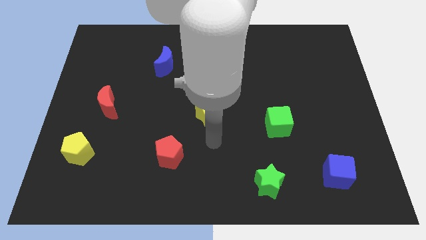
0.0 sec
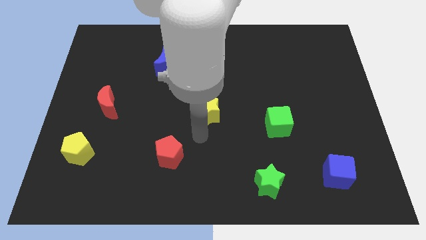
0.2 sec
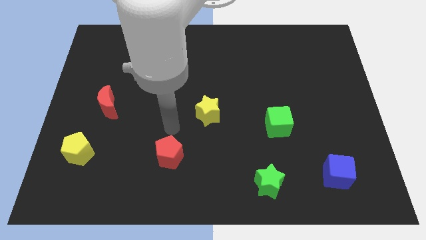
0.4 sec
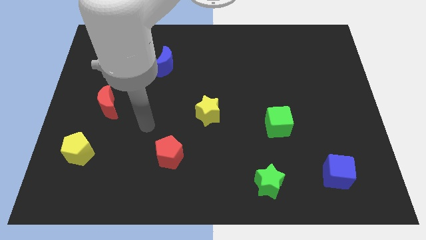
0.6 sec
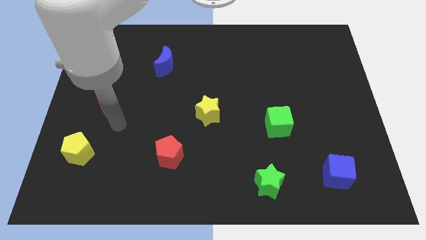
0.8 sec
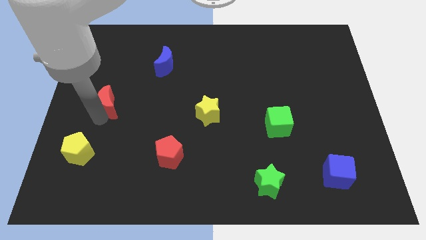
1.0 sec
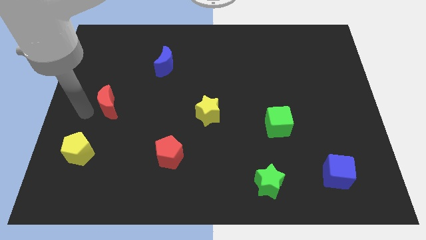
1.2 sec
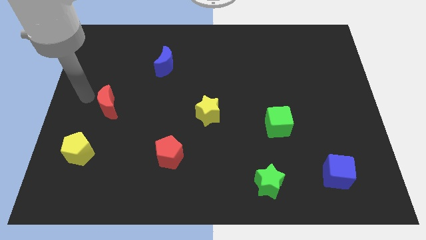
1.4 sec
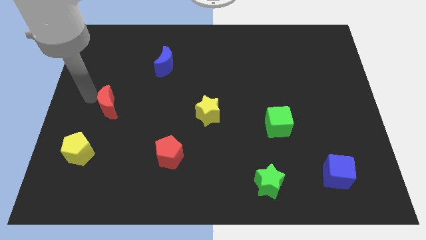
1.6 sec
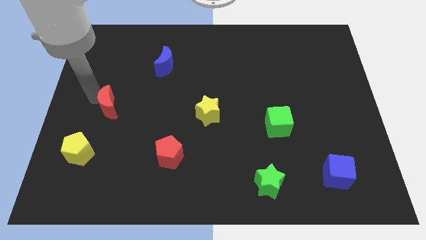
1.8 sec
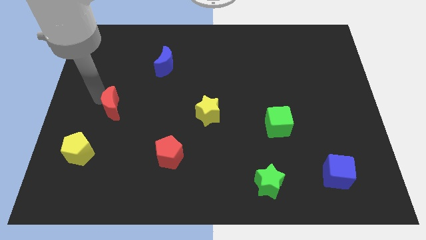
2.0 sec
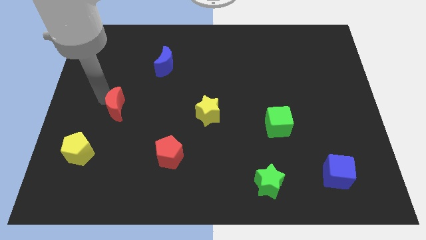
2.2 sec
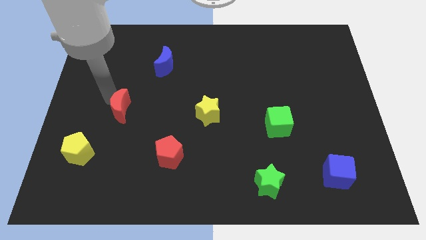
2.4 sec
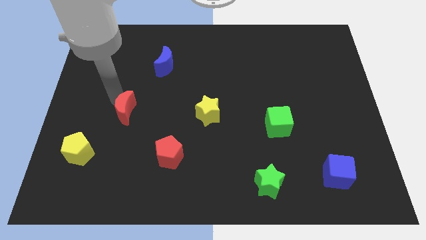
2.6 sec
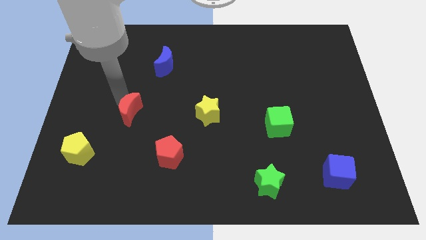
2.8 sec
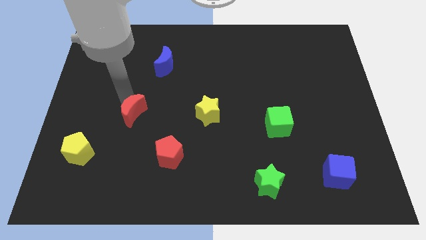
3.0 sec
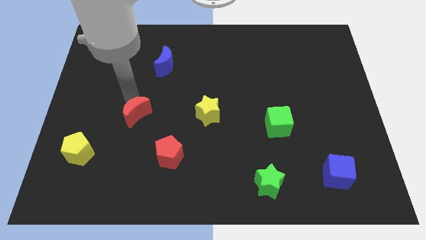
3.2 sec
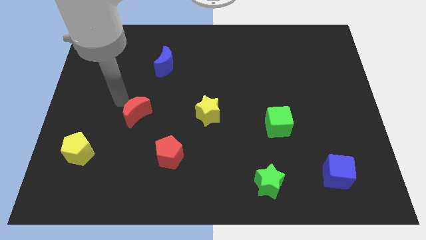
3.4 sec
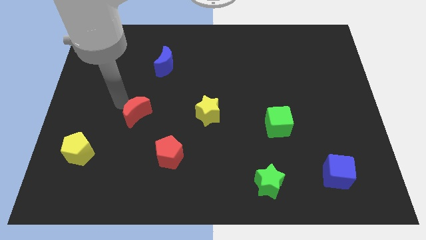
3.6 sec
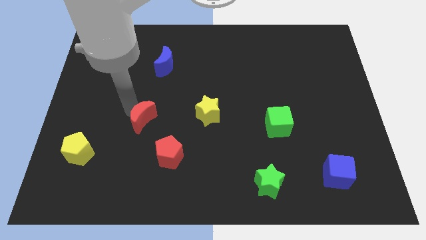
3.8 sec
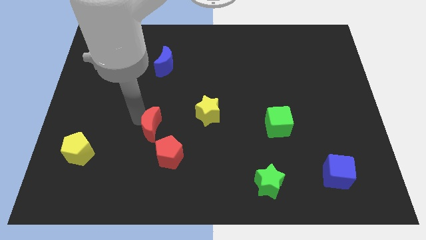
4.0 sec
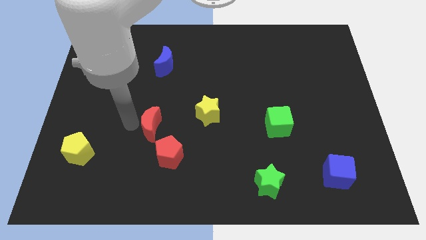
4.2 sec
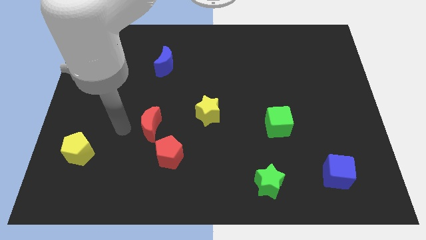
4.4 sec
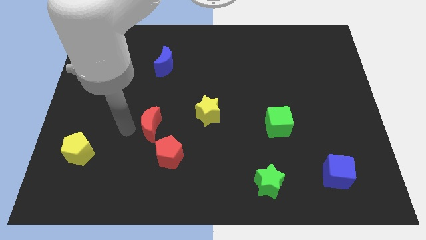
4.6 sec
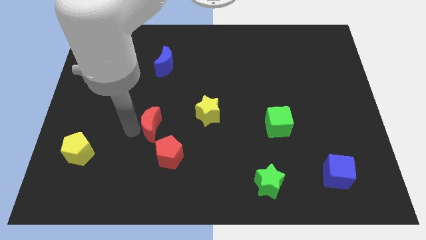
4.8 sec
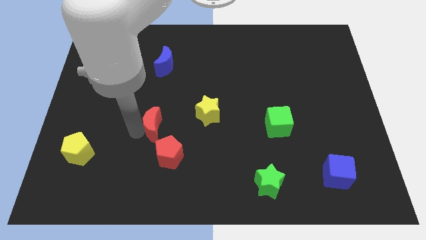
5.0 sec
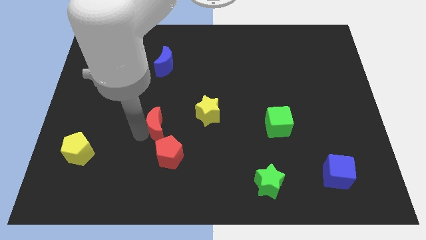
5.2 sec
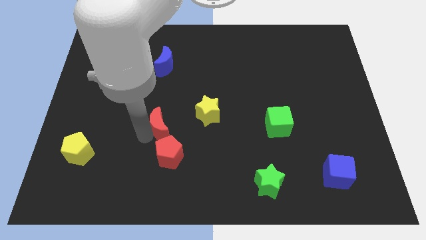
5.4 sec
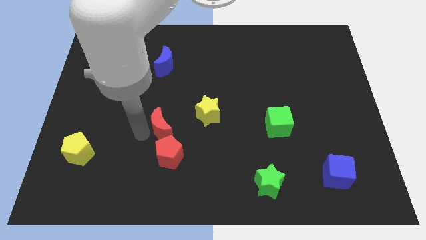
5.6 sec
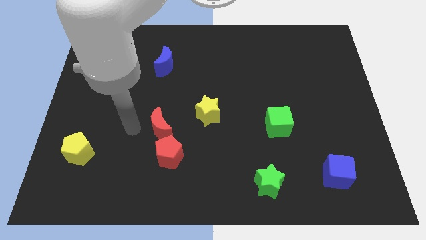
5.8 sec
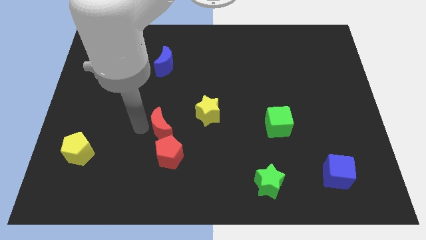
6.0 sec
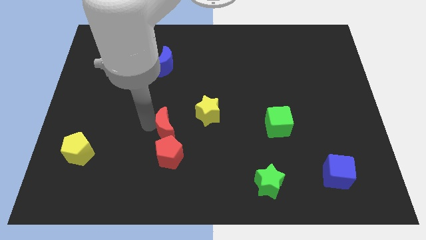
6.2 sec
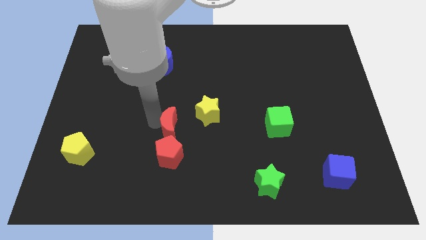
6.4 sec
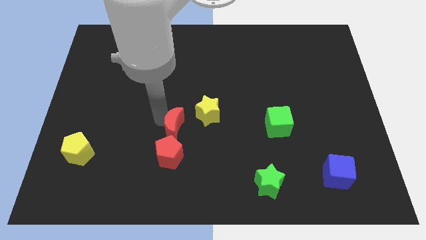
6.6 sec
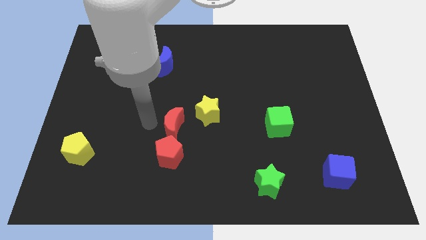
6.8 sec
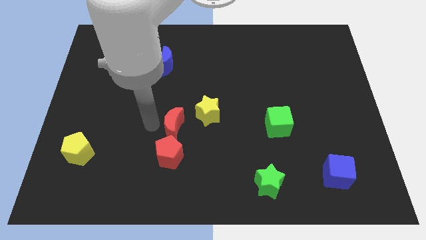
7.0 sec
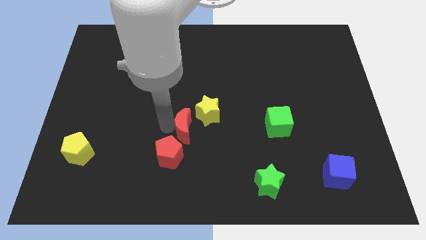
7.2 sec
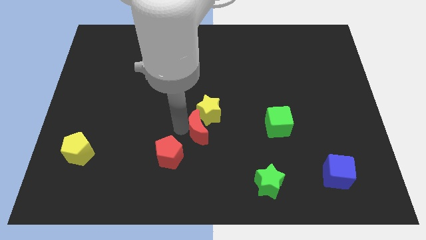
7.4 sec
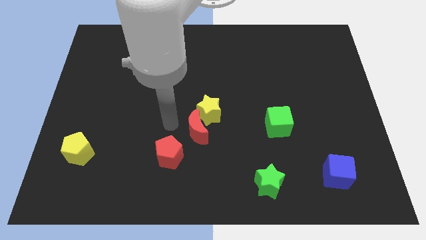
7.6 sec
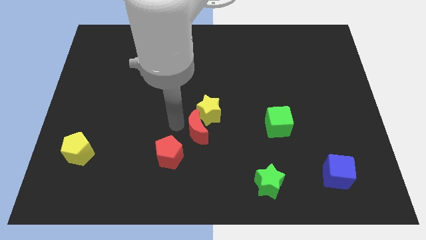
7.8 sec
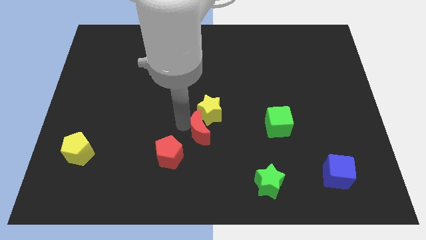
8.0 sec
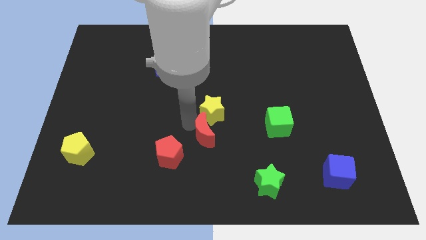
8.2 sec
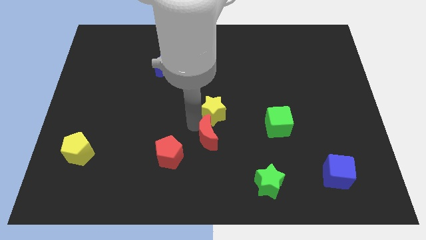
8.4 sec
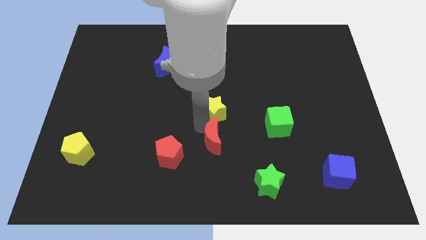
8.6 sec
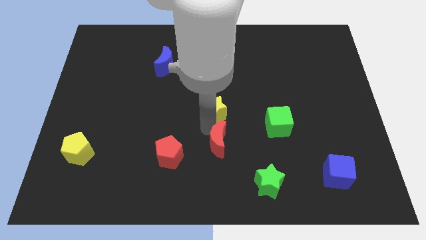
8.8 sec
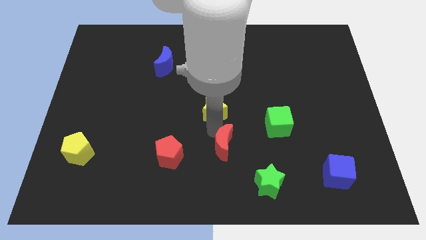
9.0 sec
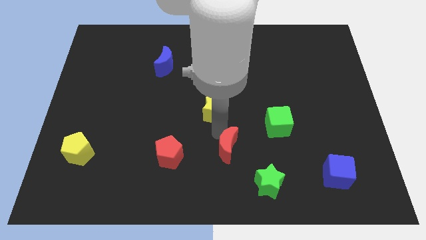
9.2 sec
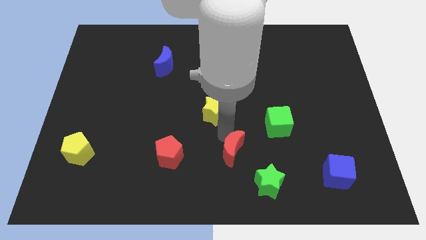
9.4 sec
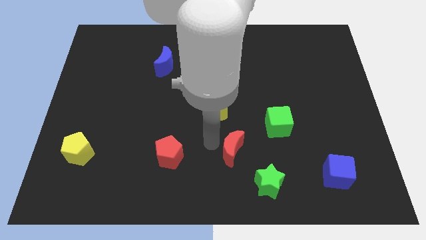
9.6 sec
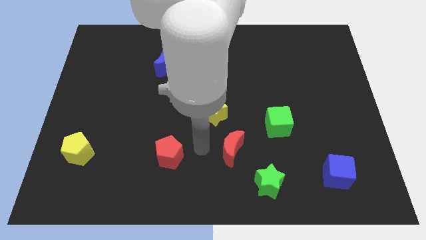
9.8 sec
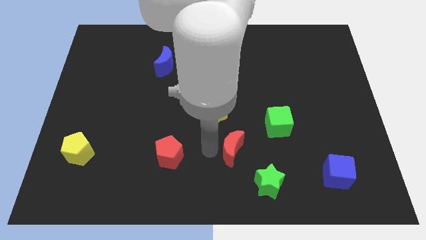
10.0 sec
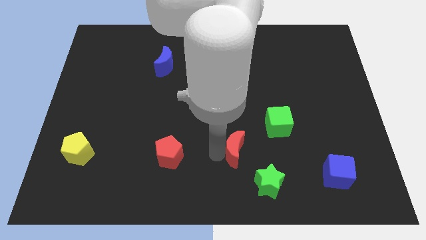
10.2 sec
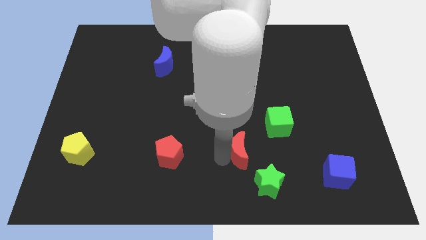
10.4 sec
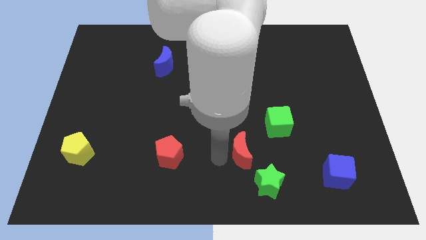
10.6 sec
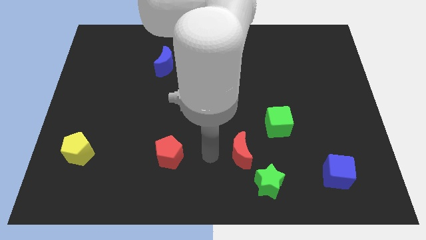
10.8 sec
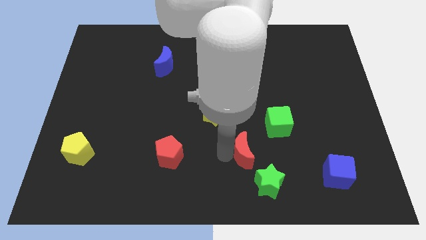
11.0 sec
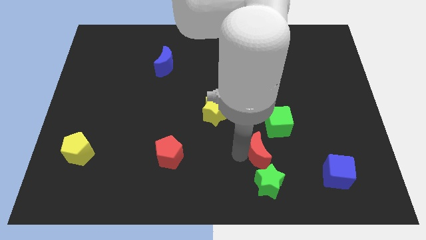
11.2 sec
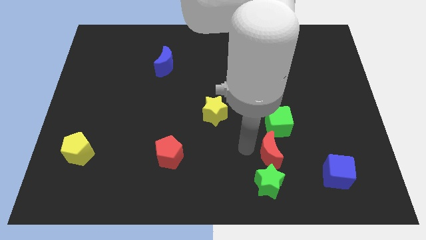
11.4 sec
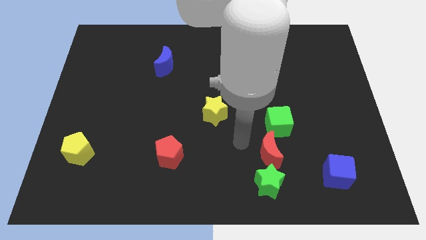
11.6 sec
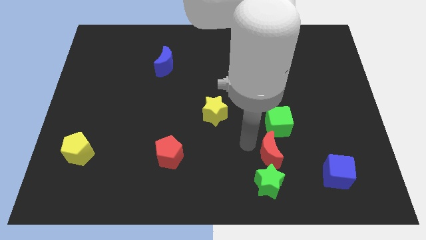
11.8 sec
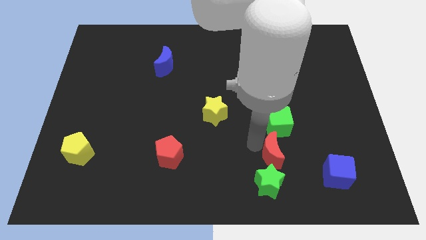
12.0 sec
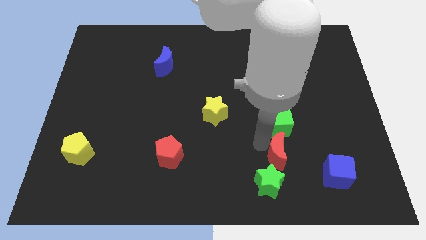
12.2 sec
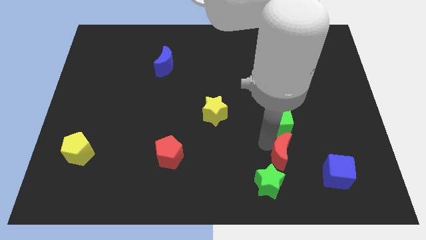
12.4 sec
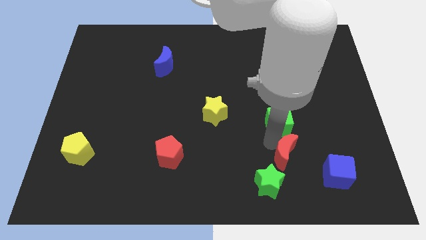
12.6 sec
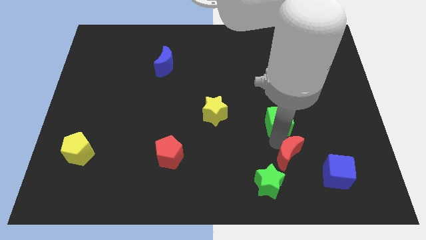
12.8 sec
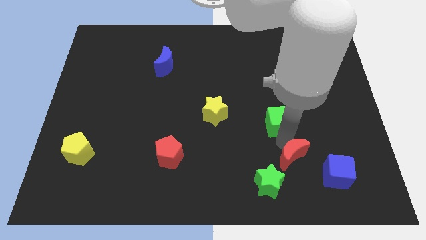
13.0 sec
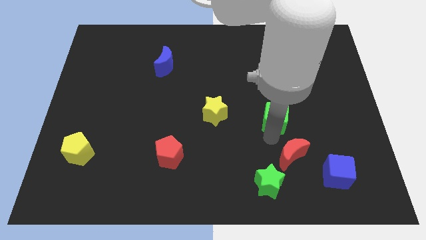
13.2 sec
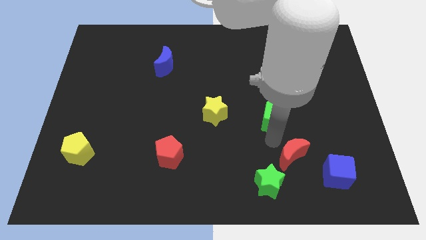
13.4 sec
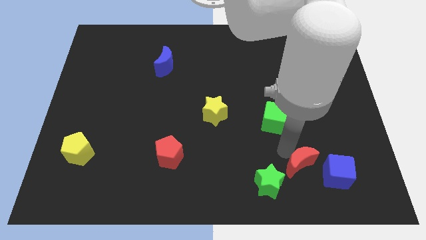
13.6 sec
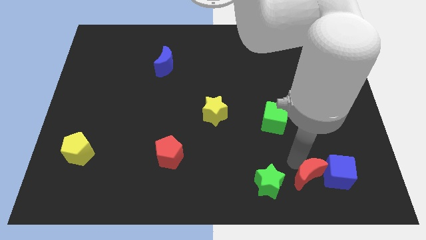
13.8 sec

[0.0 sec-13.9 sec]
push the red moon next to the blue cube
